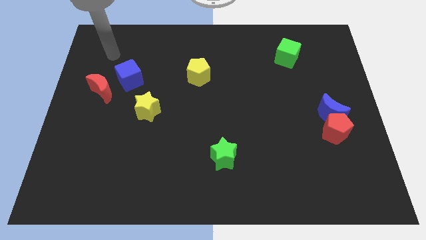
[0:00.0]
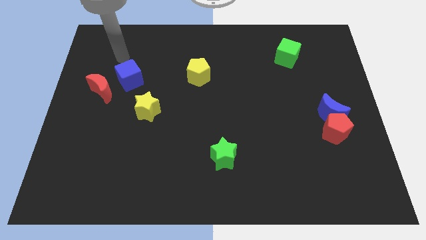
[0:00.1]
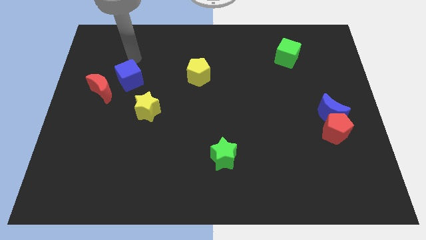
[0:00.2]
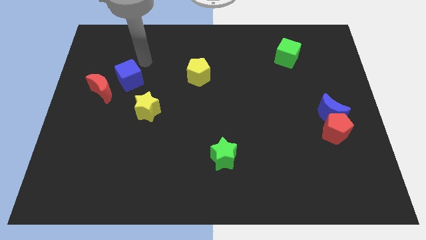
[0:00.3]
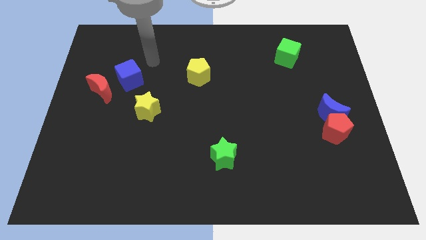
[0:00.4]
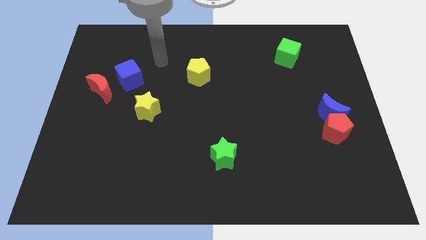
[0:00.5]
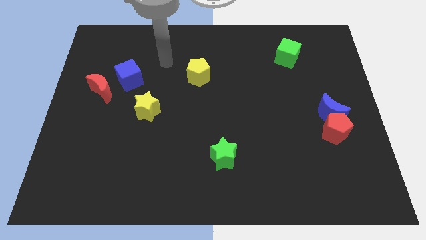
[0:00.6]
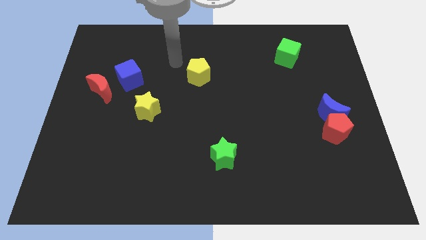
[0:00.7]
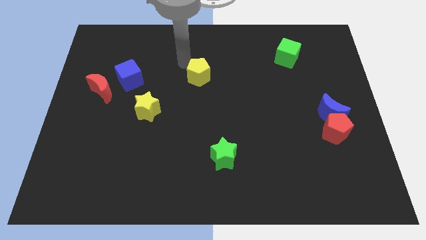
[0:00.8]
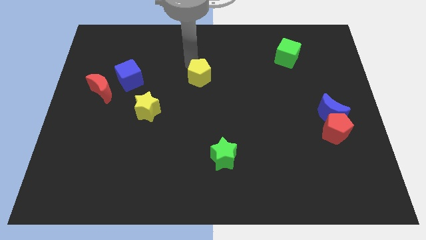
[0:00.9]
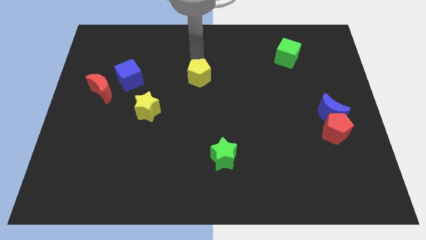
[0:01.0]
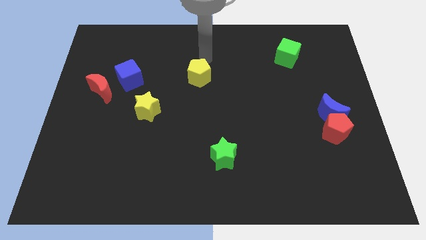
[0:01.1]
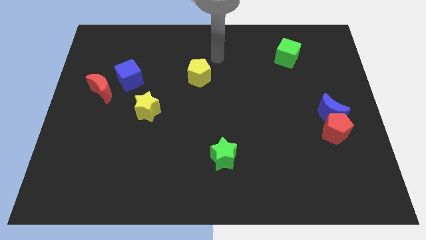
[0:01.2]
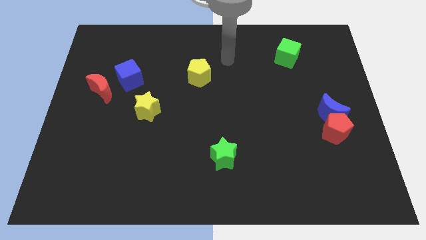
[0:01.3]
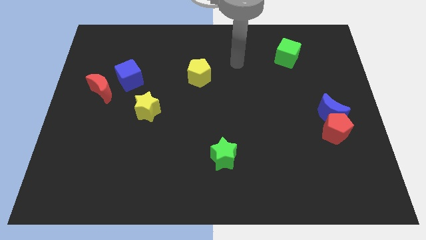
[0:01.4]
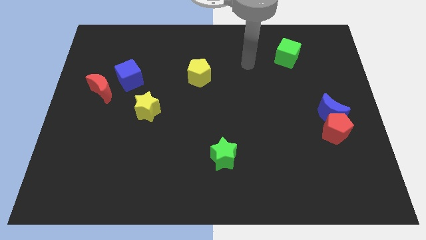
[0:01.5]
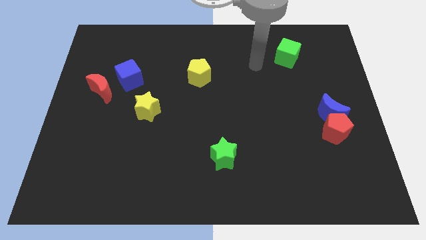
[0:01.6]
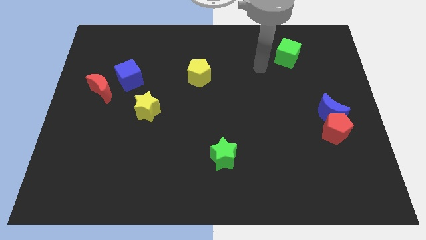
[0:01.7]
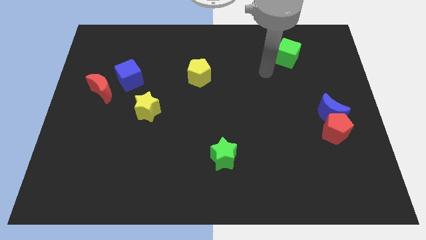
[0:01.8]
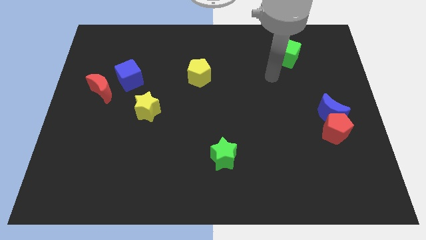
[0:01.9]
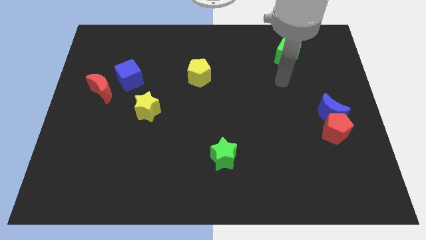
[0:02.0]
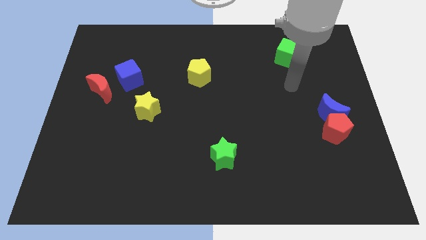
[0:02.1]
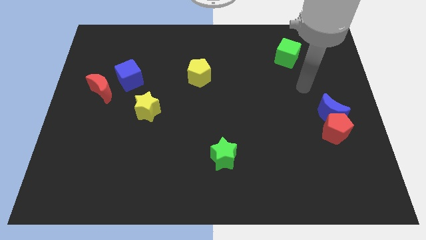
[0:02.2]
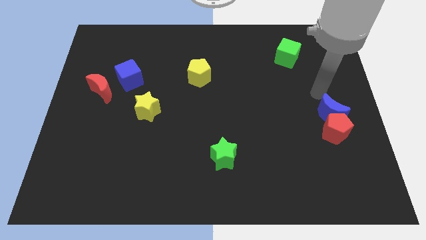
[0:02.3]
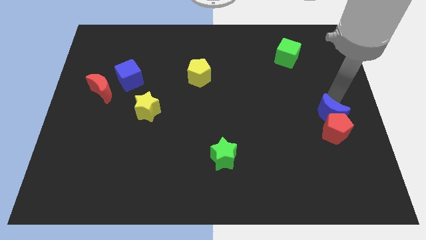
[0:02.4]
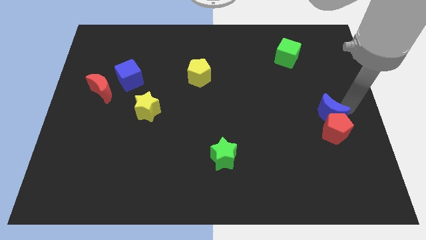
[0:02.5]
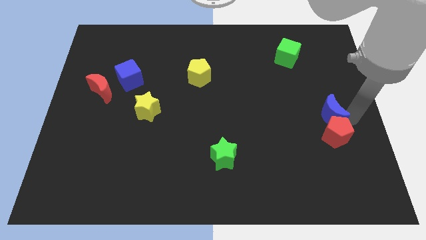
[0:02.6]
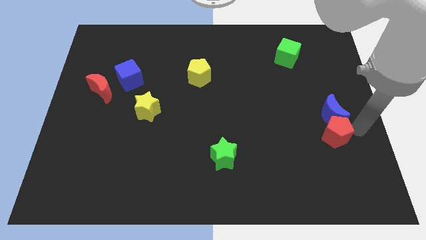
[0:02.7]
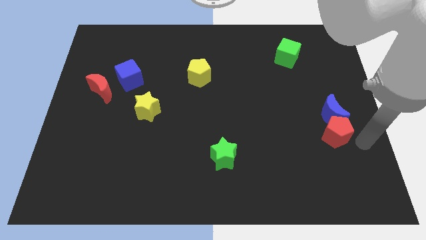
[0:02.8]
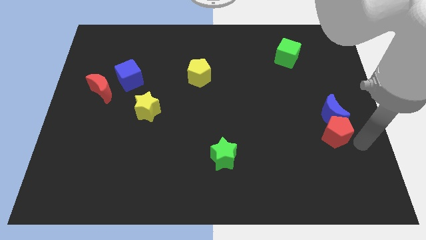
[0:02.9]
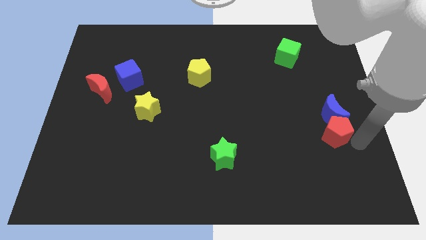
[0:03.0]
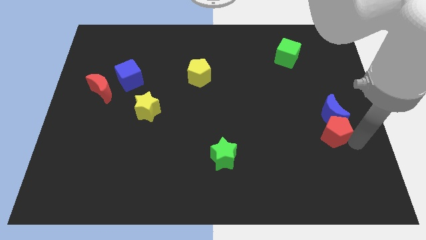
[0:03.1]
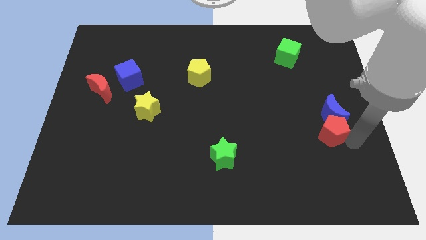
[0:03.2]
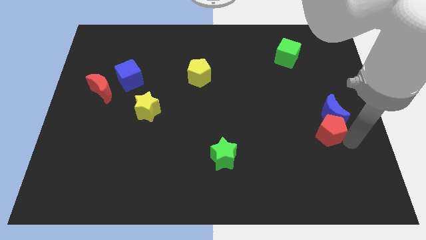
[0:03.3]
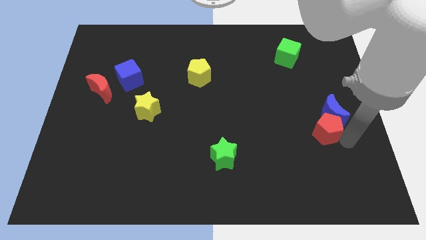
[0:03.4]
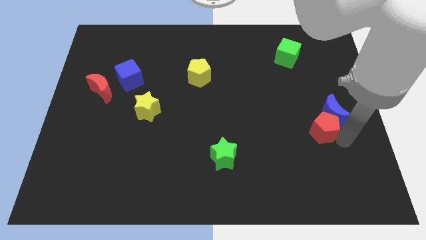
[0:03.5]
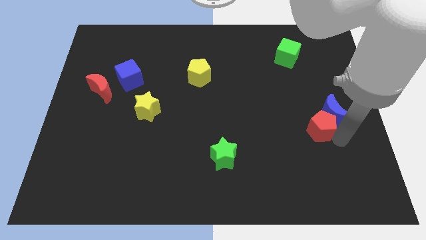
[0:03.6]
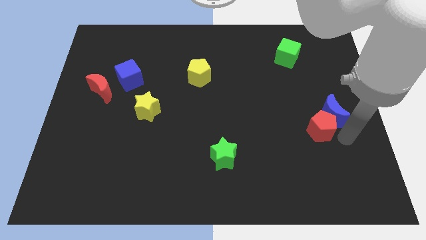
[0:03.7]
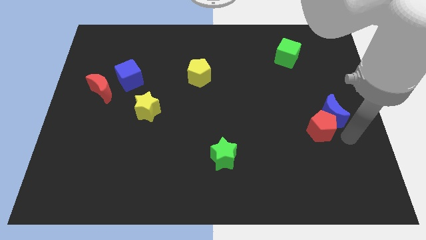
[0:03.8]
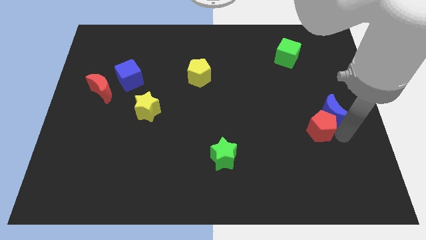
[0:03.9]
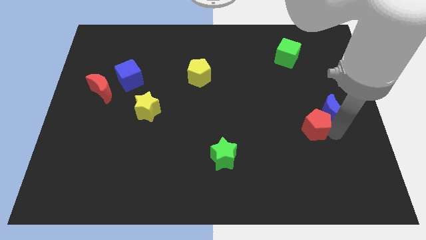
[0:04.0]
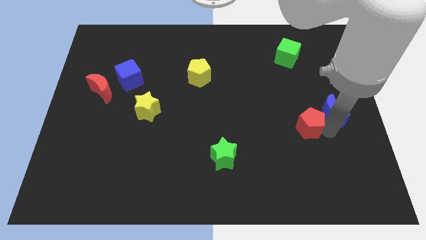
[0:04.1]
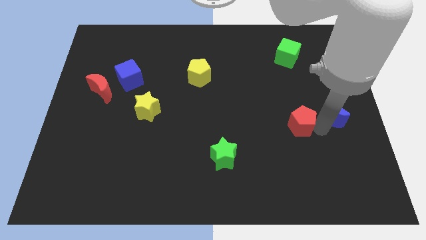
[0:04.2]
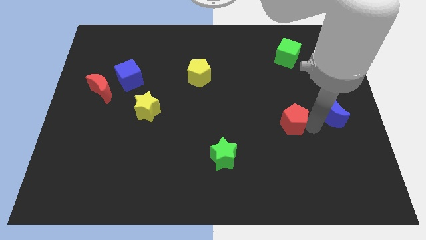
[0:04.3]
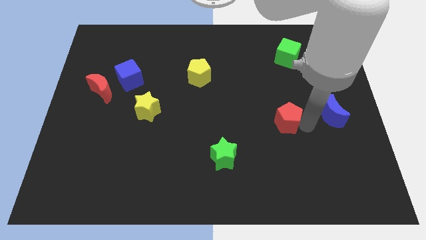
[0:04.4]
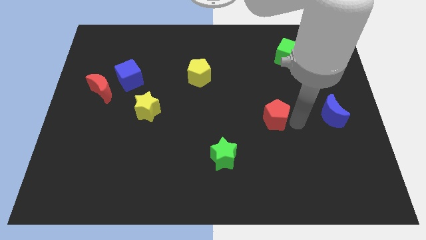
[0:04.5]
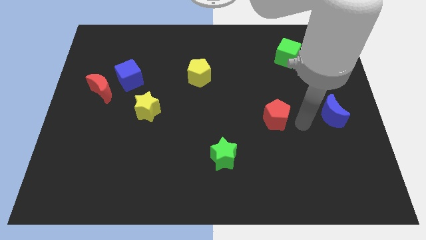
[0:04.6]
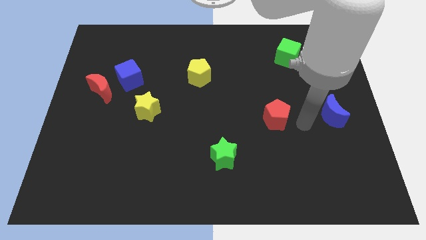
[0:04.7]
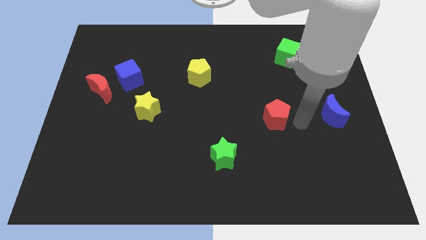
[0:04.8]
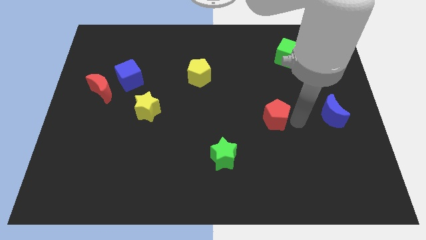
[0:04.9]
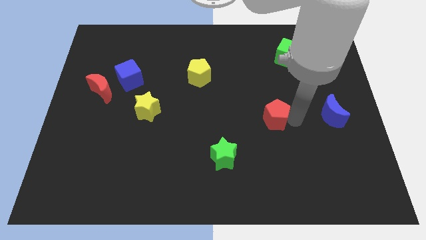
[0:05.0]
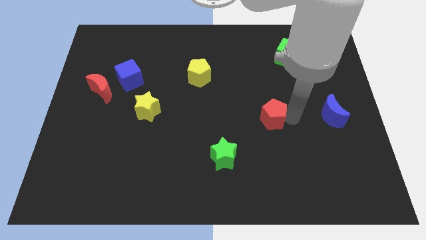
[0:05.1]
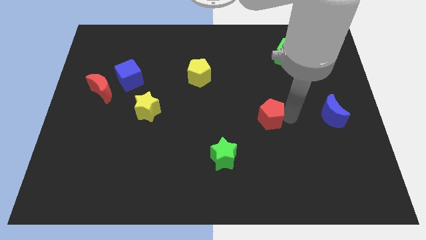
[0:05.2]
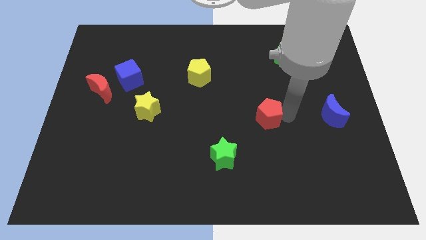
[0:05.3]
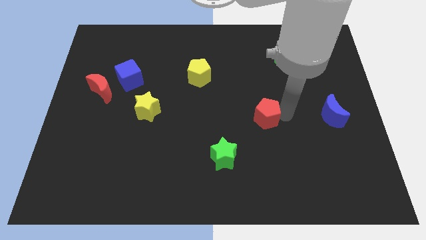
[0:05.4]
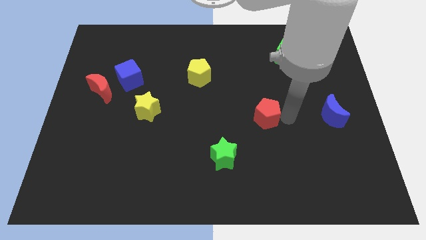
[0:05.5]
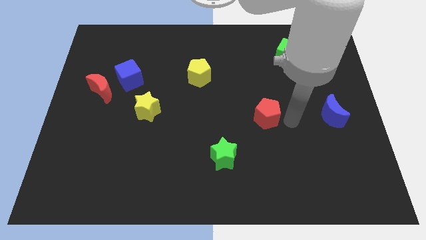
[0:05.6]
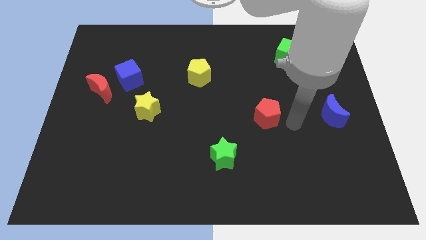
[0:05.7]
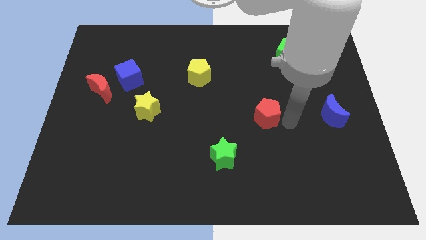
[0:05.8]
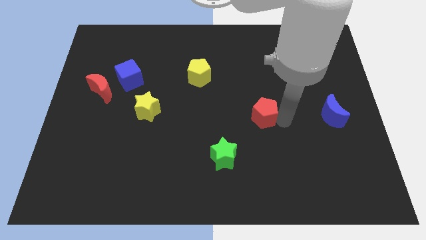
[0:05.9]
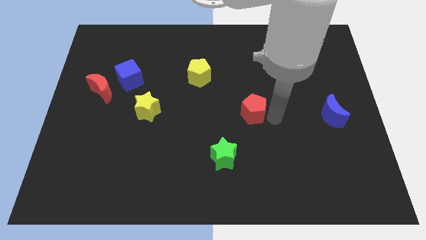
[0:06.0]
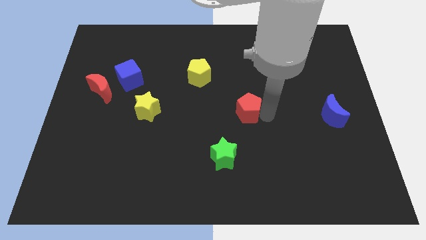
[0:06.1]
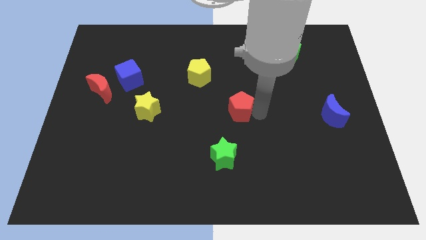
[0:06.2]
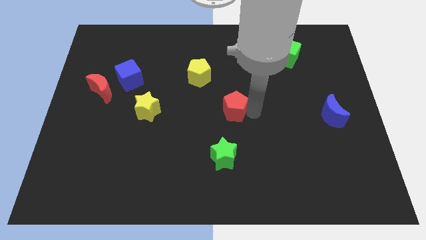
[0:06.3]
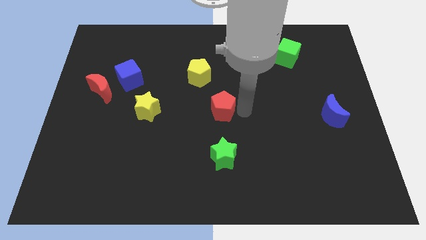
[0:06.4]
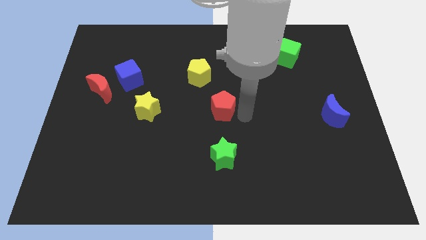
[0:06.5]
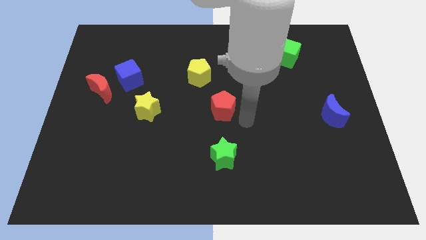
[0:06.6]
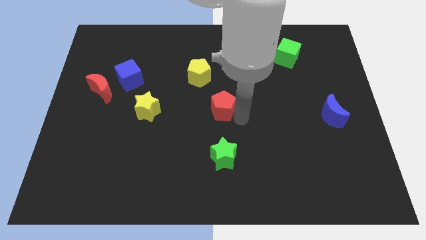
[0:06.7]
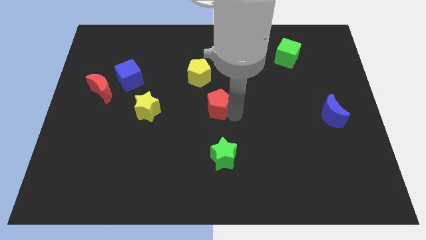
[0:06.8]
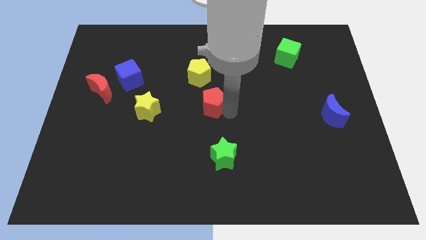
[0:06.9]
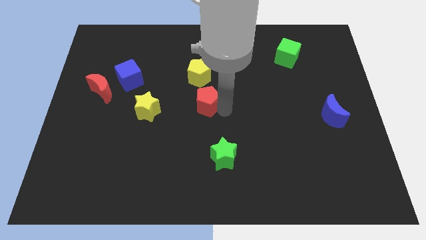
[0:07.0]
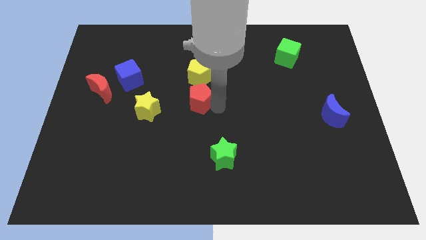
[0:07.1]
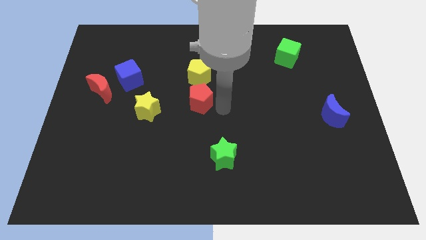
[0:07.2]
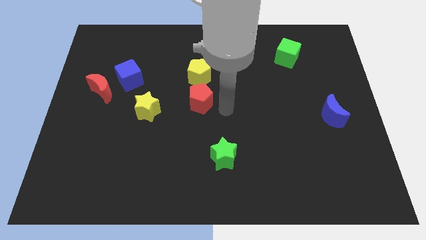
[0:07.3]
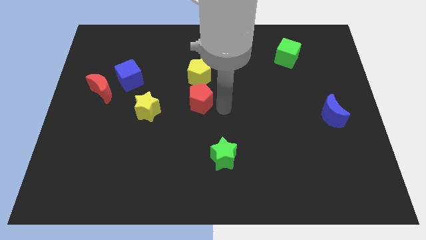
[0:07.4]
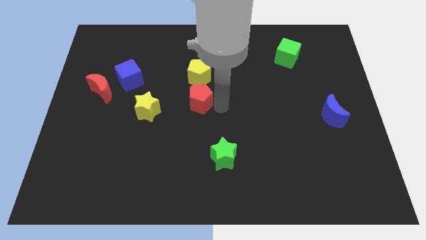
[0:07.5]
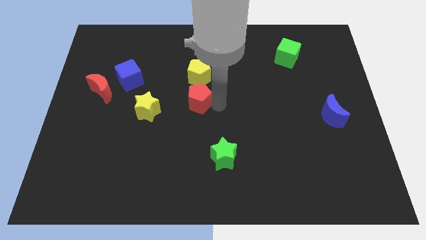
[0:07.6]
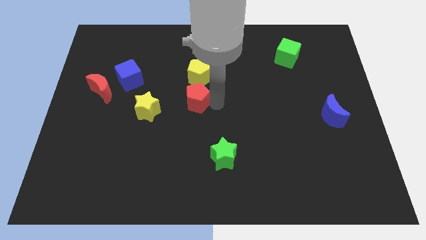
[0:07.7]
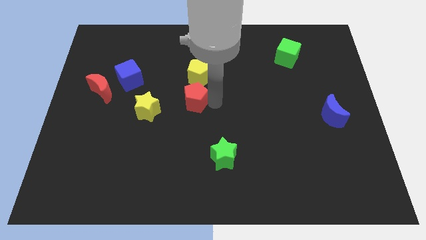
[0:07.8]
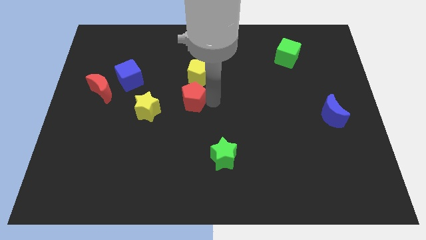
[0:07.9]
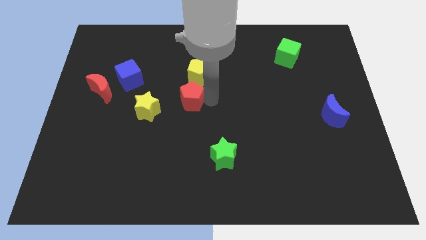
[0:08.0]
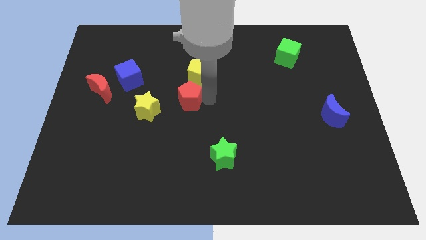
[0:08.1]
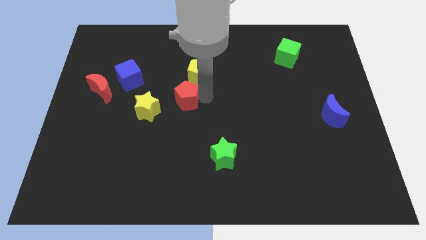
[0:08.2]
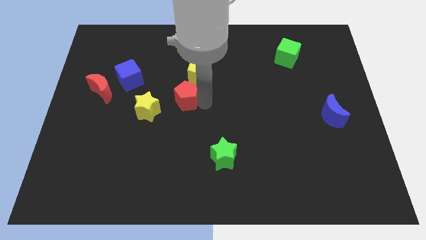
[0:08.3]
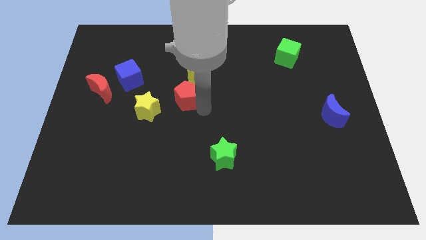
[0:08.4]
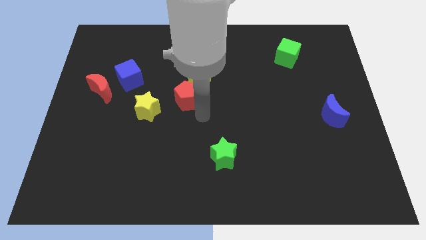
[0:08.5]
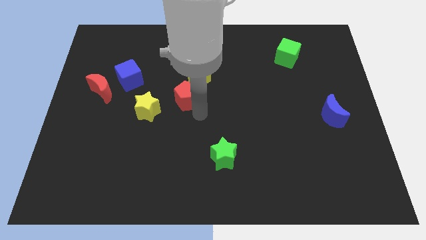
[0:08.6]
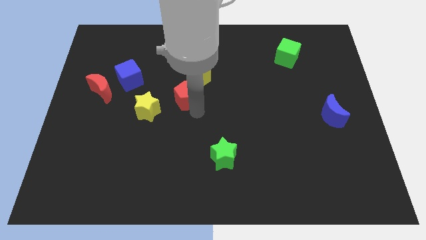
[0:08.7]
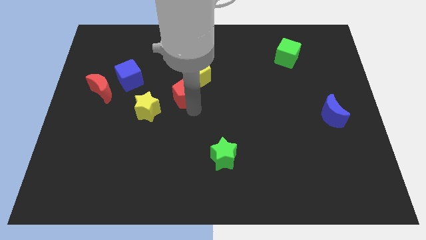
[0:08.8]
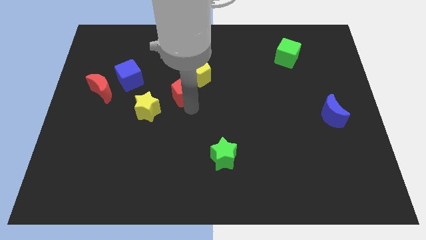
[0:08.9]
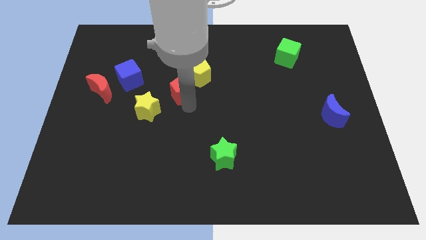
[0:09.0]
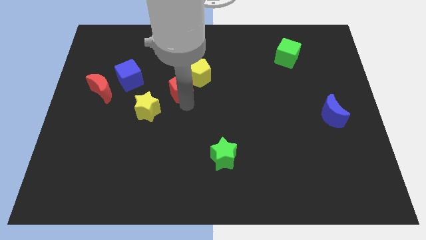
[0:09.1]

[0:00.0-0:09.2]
push the red pentagon to the right of the blue cube
